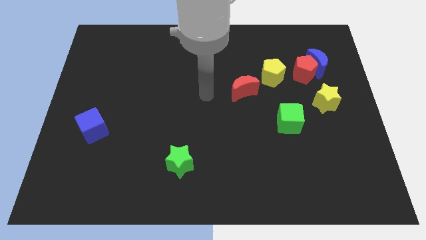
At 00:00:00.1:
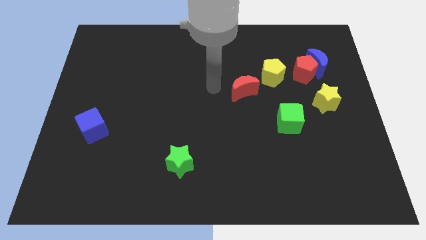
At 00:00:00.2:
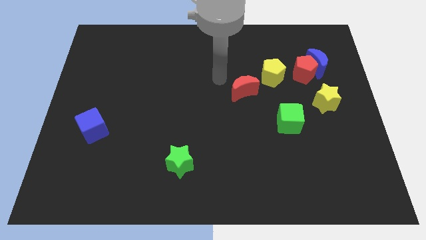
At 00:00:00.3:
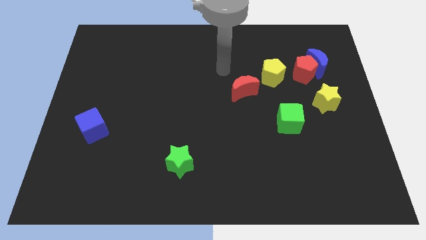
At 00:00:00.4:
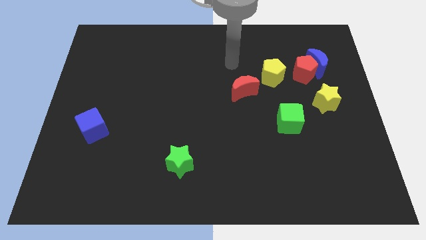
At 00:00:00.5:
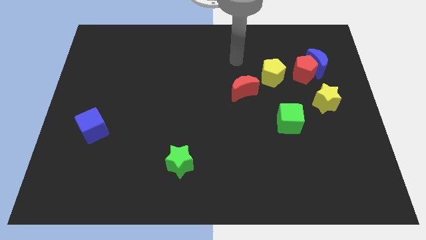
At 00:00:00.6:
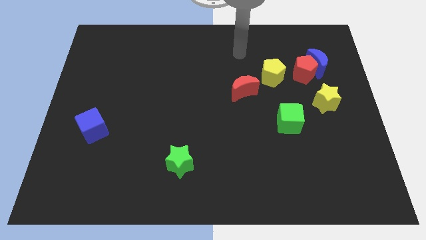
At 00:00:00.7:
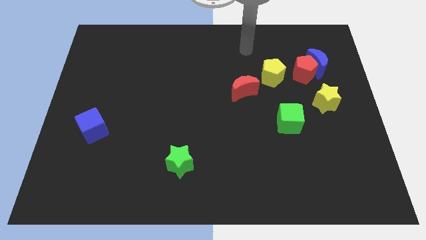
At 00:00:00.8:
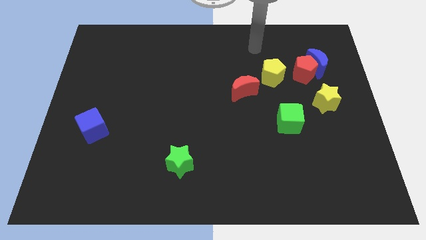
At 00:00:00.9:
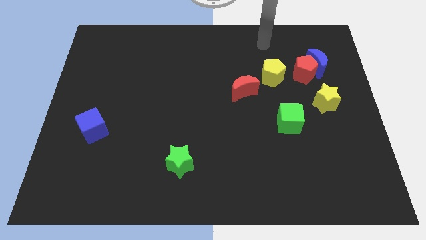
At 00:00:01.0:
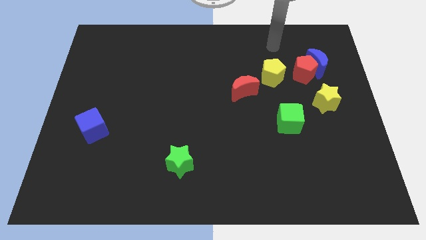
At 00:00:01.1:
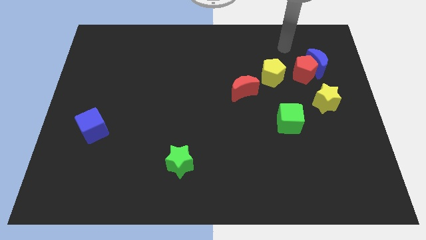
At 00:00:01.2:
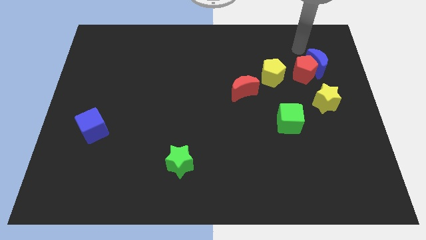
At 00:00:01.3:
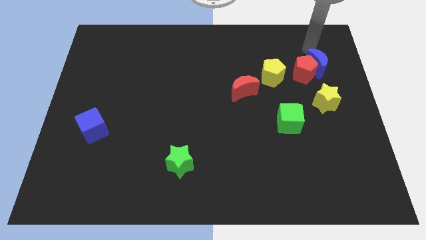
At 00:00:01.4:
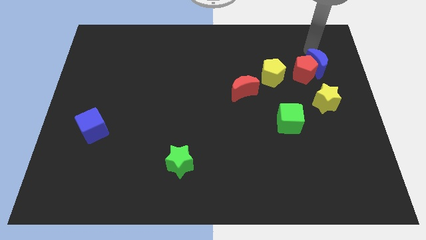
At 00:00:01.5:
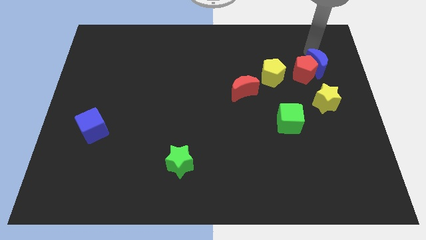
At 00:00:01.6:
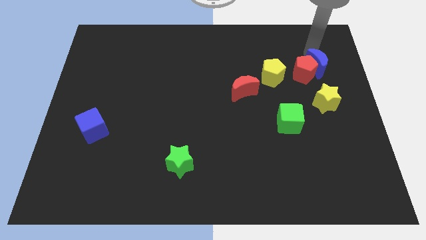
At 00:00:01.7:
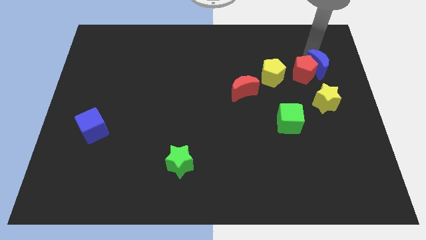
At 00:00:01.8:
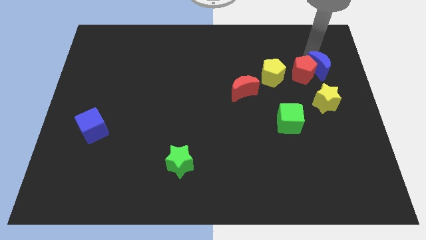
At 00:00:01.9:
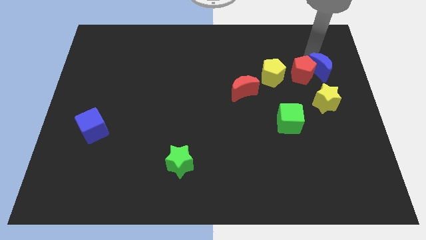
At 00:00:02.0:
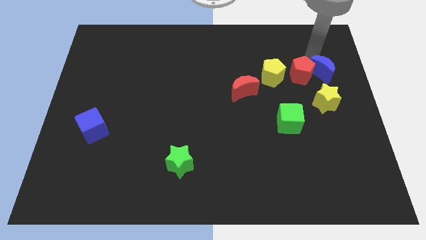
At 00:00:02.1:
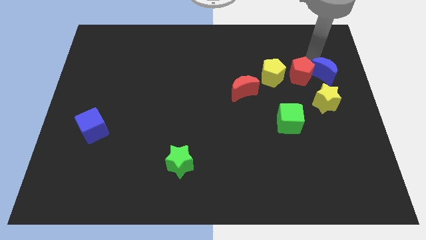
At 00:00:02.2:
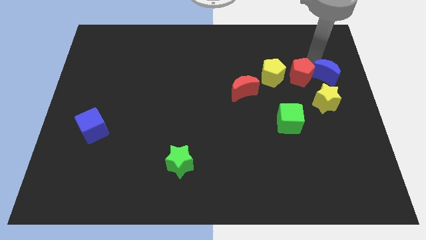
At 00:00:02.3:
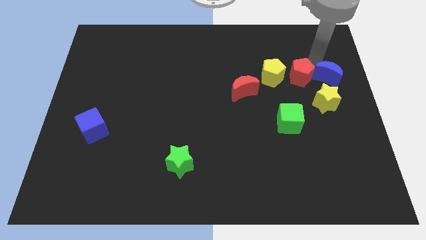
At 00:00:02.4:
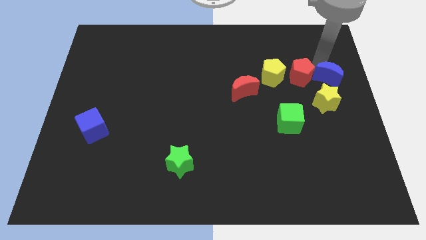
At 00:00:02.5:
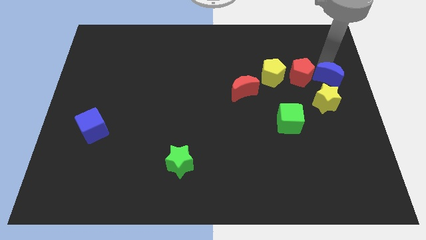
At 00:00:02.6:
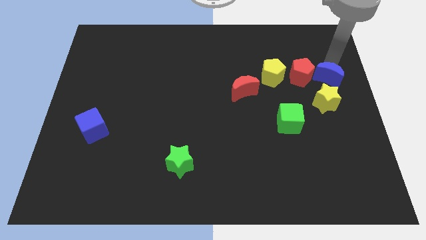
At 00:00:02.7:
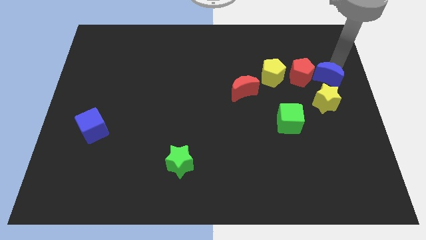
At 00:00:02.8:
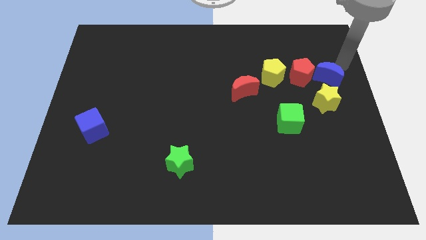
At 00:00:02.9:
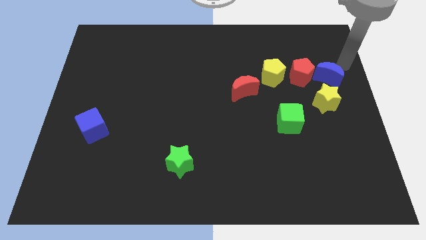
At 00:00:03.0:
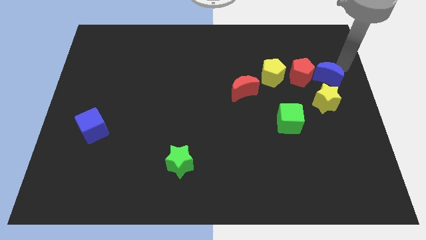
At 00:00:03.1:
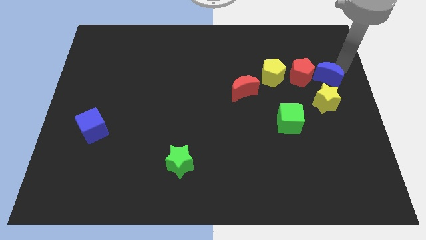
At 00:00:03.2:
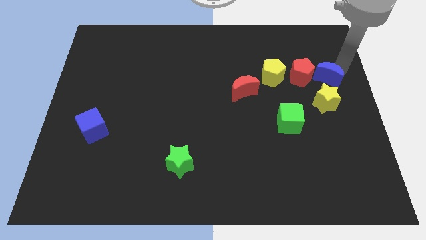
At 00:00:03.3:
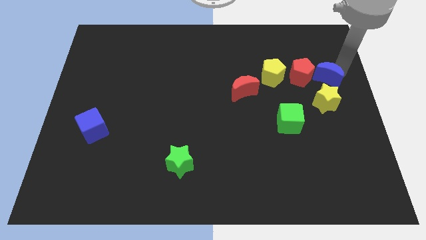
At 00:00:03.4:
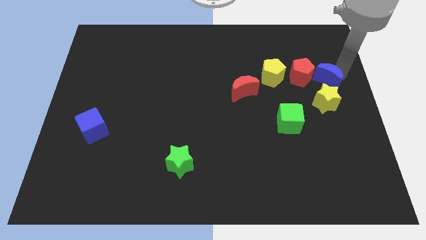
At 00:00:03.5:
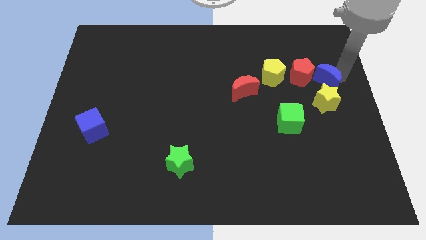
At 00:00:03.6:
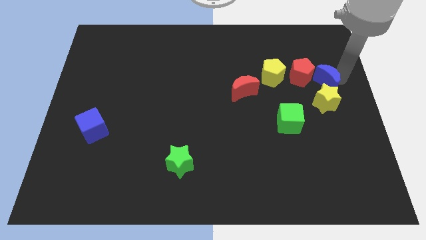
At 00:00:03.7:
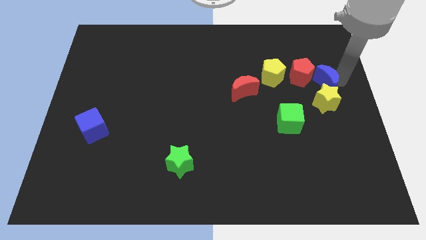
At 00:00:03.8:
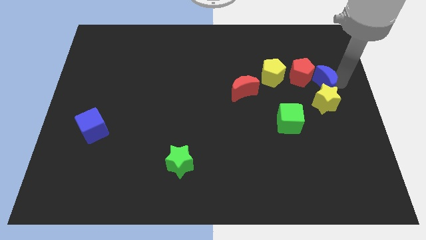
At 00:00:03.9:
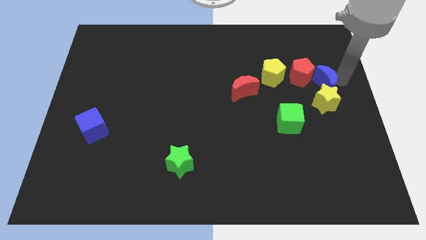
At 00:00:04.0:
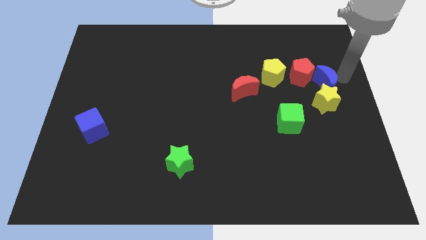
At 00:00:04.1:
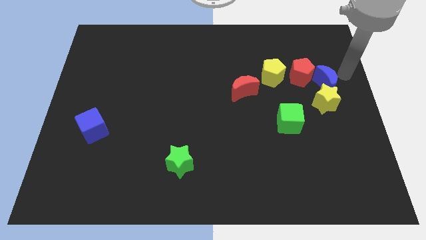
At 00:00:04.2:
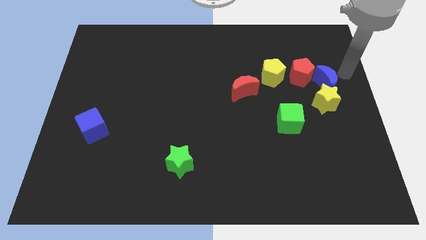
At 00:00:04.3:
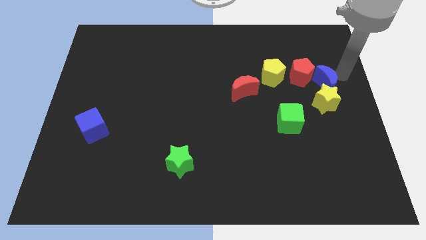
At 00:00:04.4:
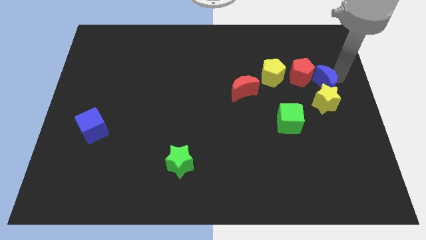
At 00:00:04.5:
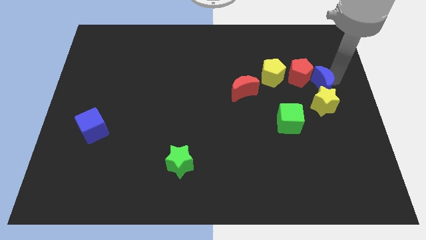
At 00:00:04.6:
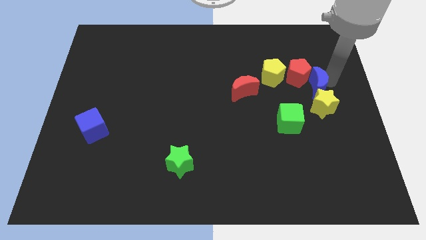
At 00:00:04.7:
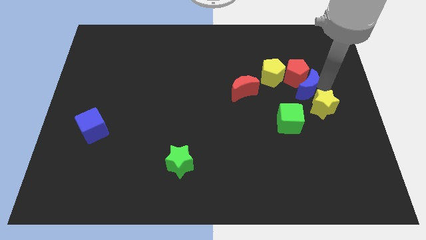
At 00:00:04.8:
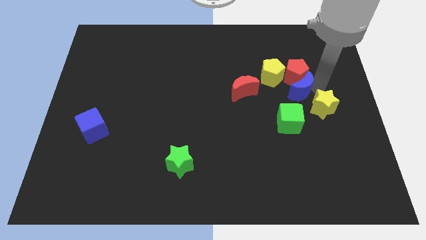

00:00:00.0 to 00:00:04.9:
move the blue moon to the top of the green cube

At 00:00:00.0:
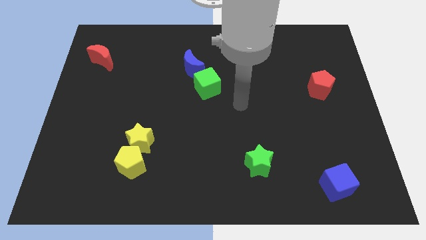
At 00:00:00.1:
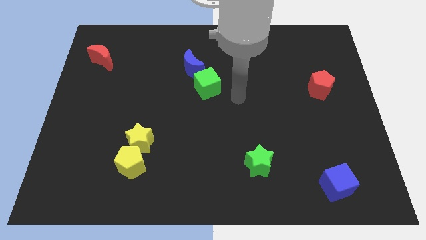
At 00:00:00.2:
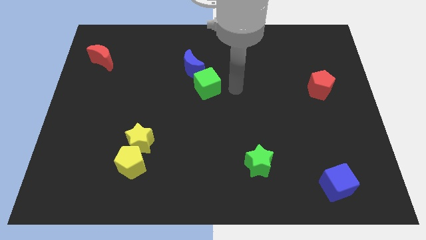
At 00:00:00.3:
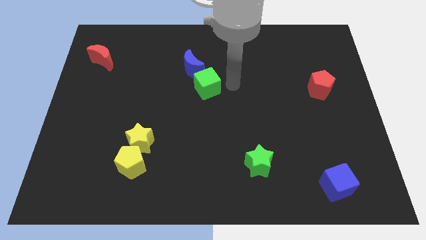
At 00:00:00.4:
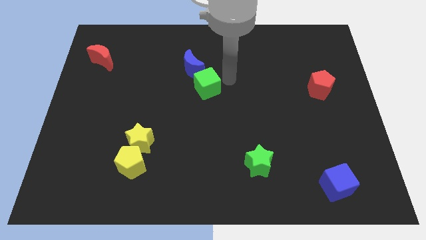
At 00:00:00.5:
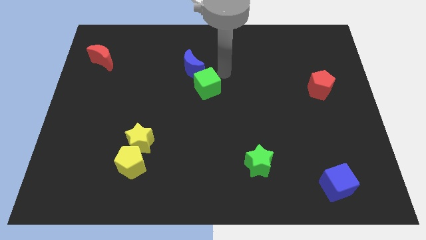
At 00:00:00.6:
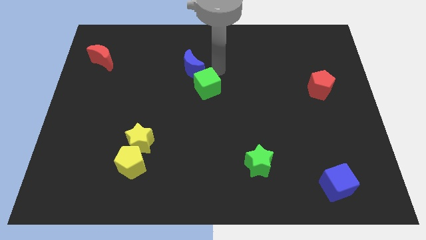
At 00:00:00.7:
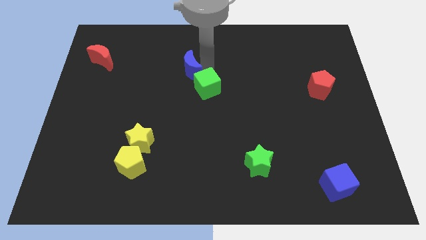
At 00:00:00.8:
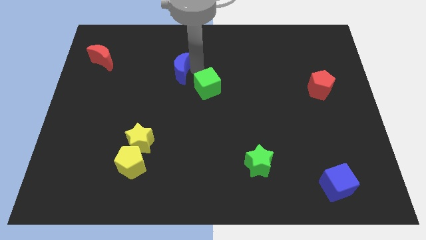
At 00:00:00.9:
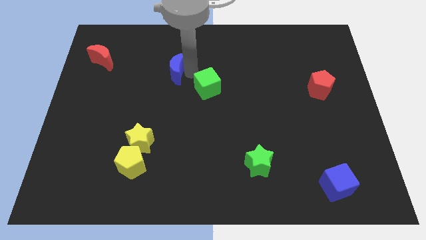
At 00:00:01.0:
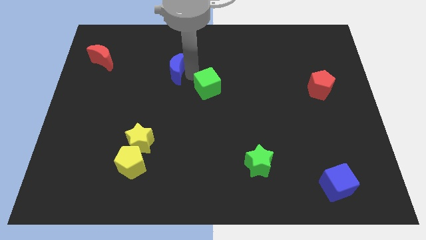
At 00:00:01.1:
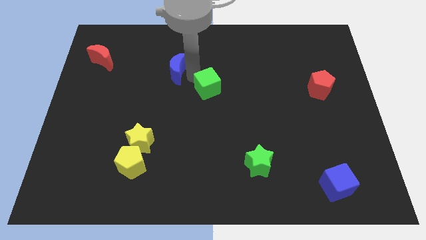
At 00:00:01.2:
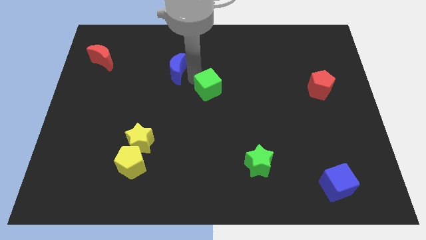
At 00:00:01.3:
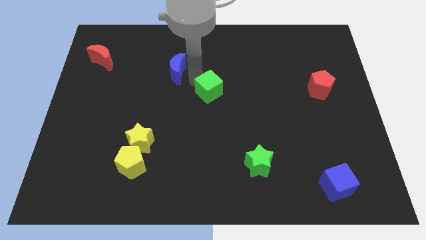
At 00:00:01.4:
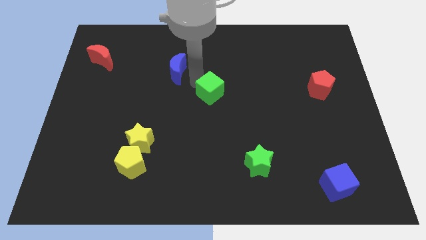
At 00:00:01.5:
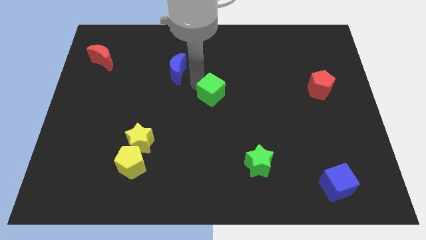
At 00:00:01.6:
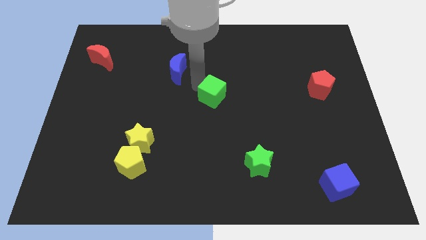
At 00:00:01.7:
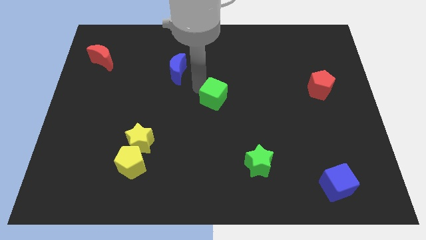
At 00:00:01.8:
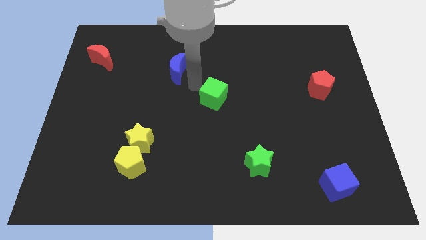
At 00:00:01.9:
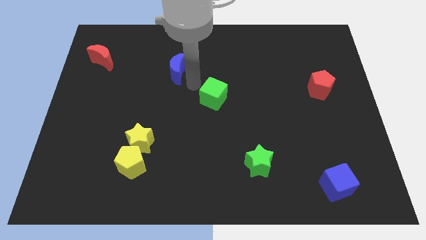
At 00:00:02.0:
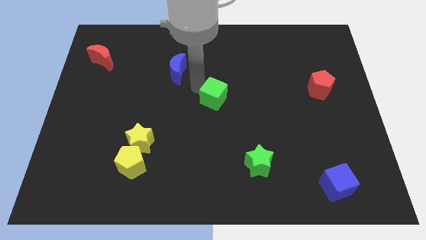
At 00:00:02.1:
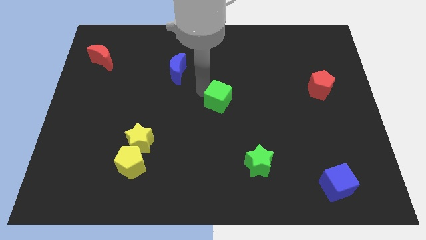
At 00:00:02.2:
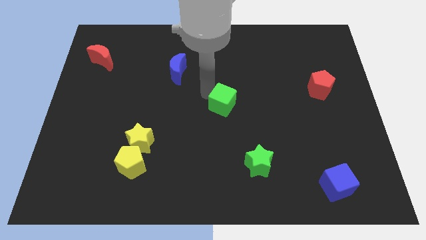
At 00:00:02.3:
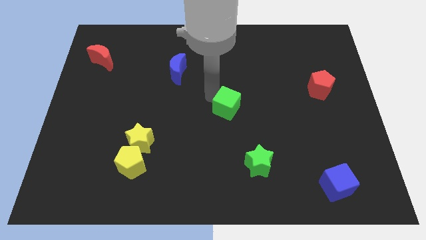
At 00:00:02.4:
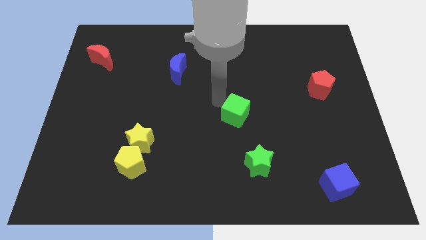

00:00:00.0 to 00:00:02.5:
push the green cube to the top side of the green star

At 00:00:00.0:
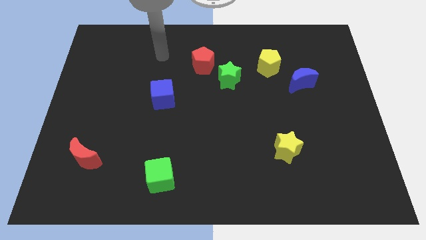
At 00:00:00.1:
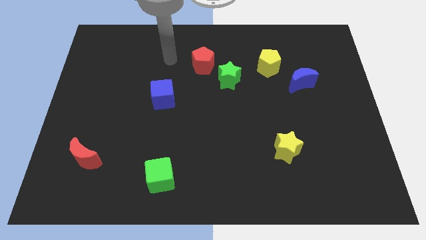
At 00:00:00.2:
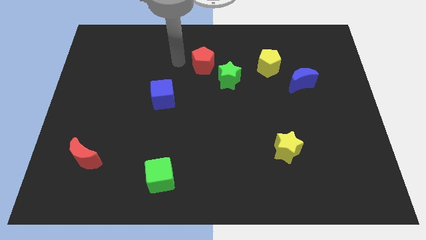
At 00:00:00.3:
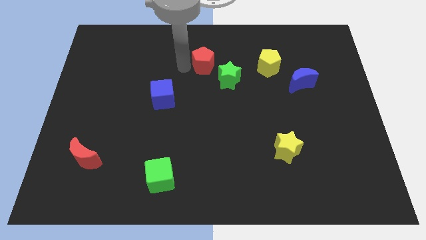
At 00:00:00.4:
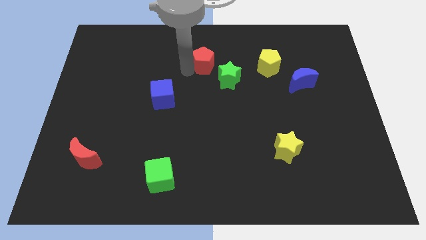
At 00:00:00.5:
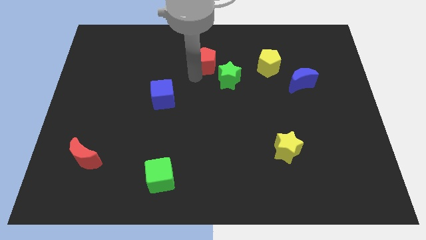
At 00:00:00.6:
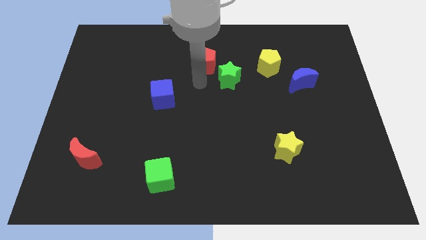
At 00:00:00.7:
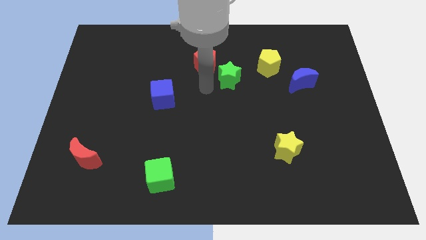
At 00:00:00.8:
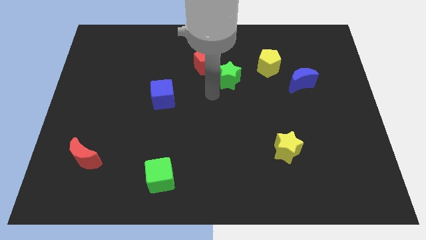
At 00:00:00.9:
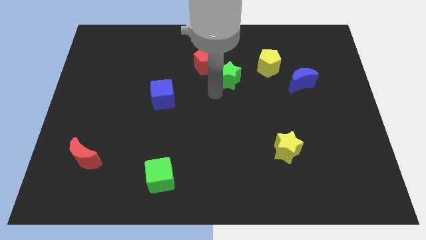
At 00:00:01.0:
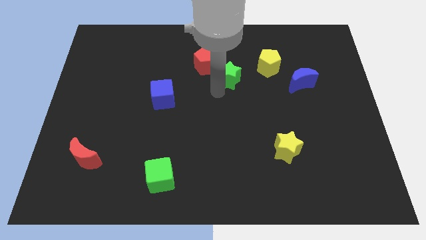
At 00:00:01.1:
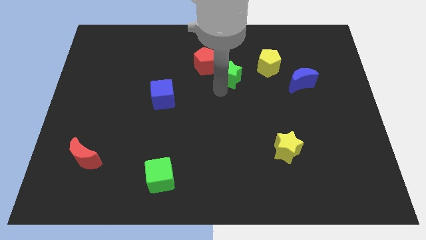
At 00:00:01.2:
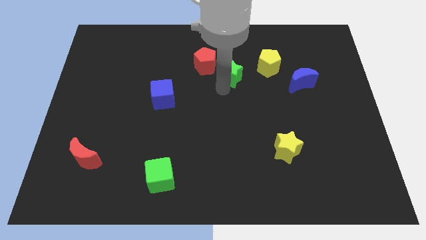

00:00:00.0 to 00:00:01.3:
slide the green star to the right of the red pentagon
